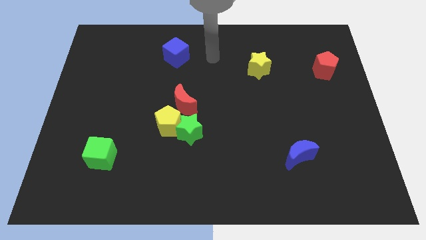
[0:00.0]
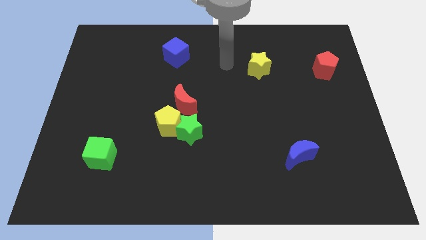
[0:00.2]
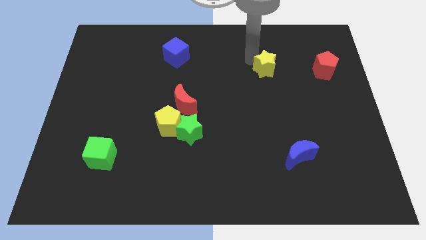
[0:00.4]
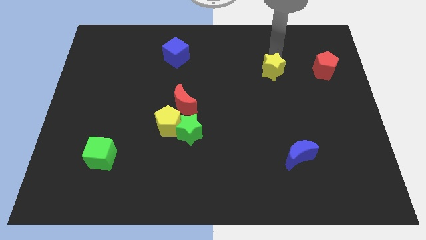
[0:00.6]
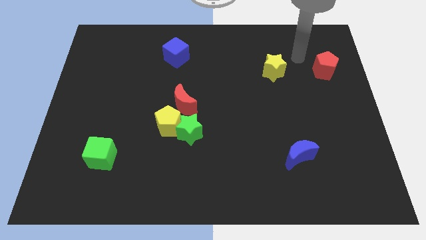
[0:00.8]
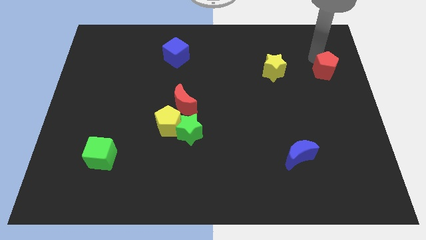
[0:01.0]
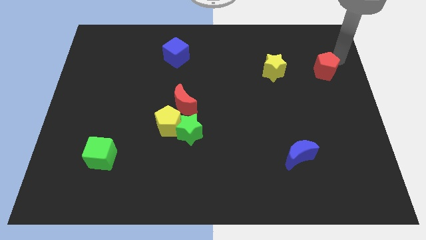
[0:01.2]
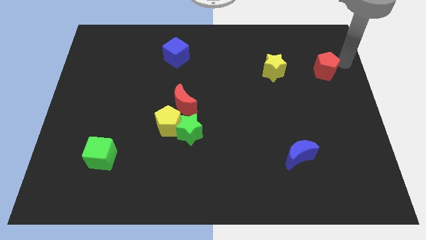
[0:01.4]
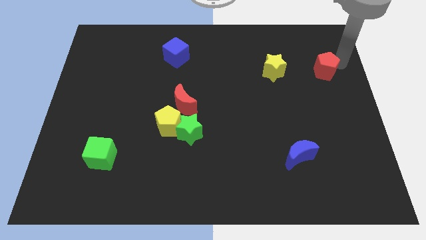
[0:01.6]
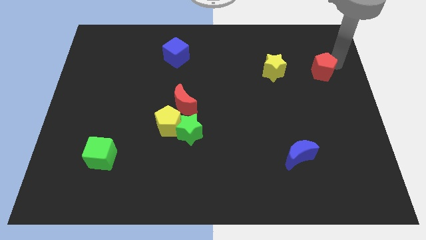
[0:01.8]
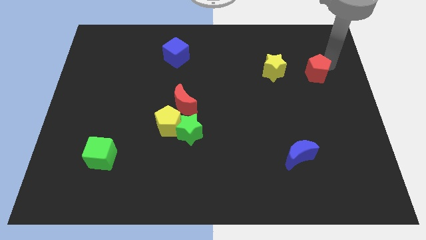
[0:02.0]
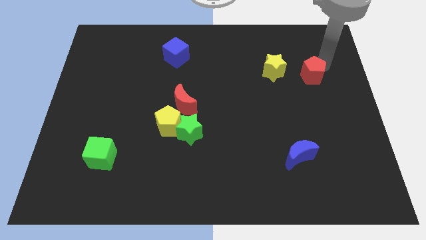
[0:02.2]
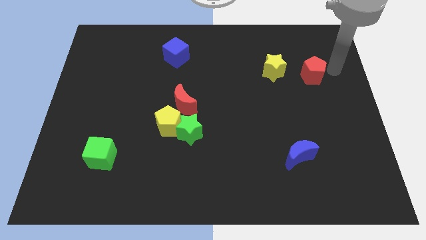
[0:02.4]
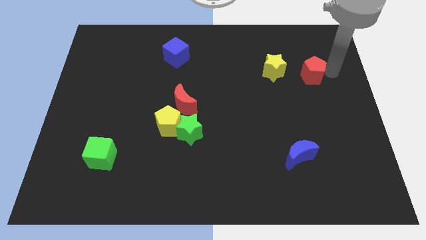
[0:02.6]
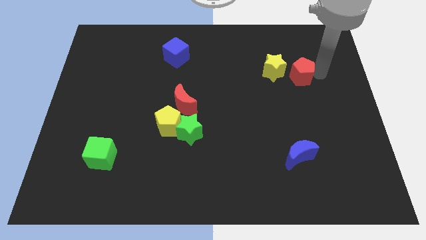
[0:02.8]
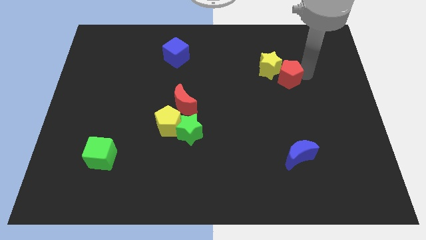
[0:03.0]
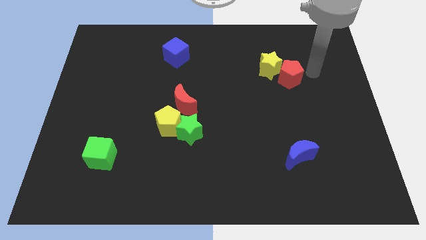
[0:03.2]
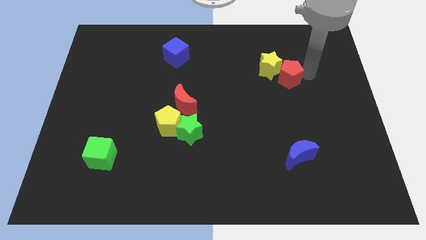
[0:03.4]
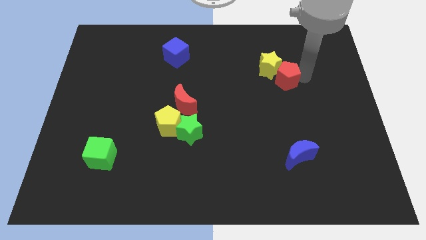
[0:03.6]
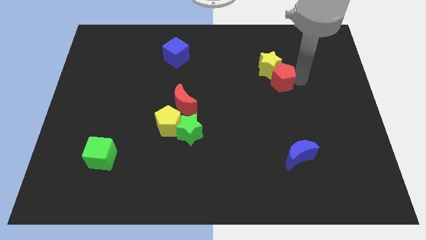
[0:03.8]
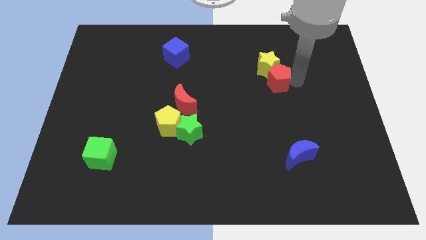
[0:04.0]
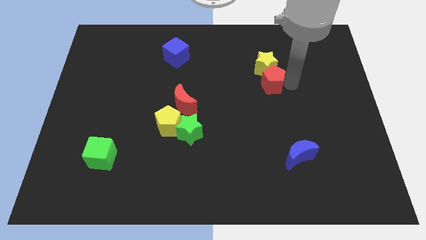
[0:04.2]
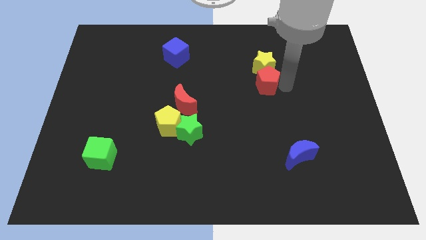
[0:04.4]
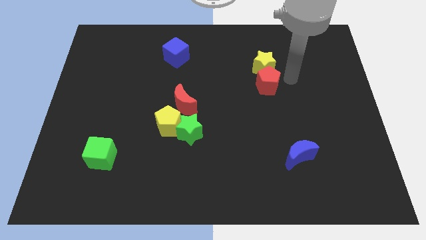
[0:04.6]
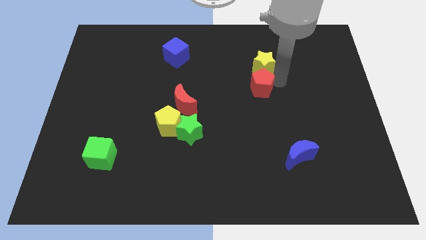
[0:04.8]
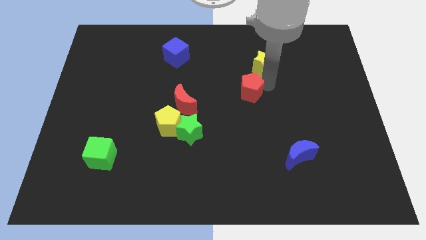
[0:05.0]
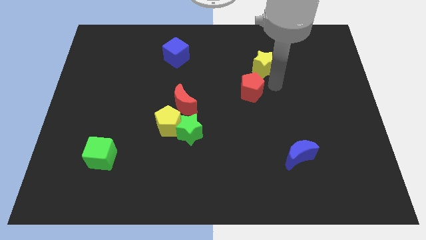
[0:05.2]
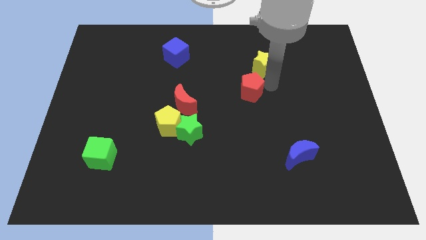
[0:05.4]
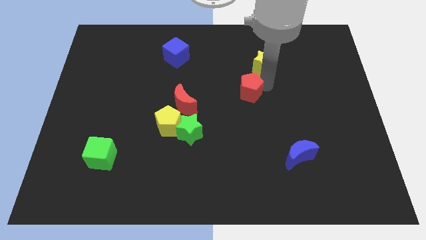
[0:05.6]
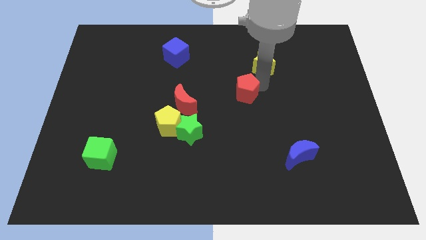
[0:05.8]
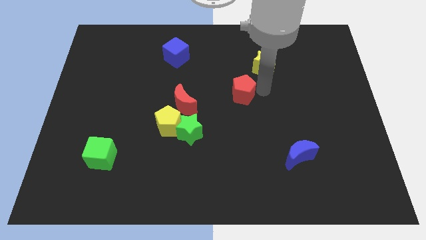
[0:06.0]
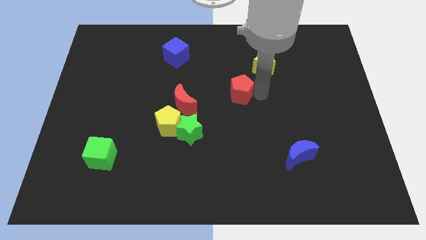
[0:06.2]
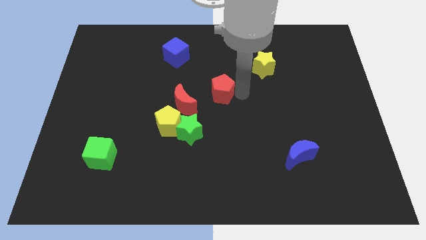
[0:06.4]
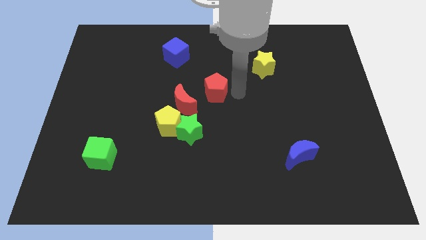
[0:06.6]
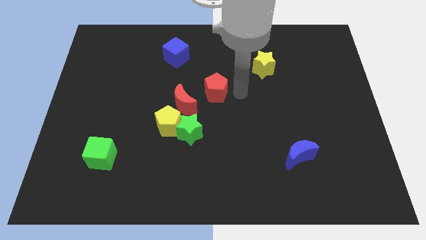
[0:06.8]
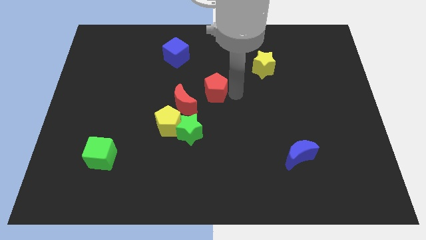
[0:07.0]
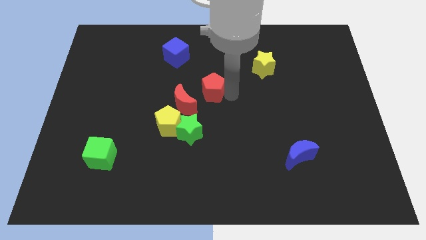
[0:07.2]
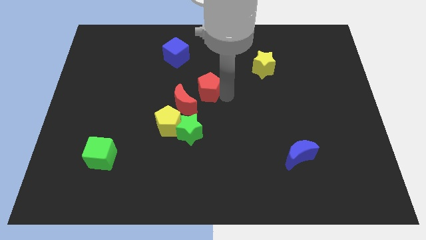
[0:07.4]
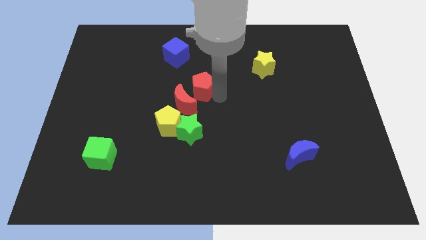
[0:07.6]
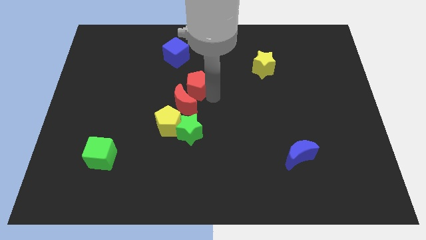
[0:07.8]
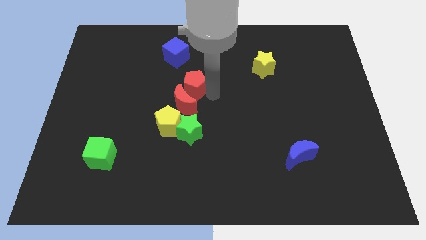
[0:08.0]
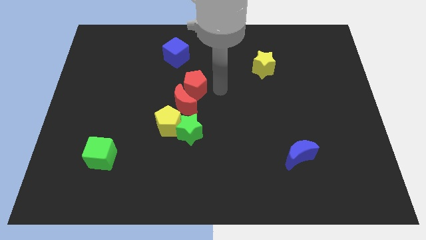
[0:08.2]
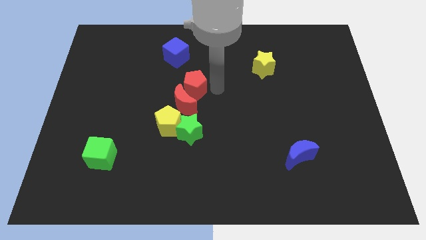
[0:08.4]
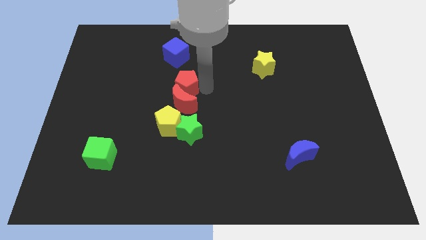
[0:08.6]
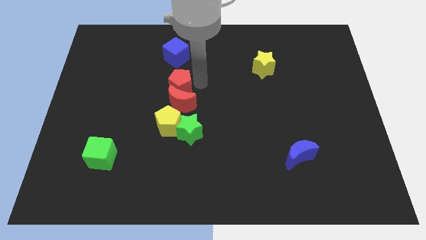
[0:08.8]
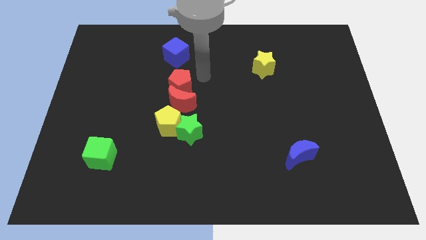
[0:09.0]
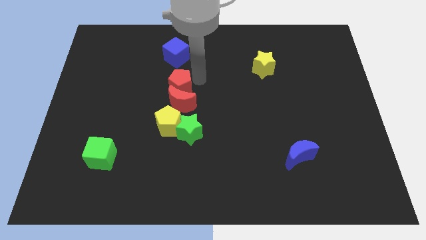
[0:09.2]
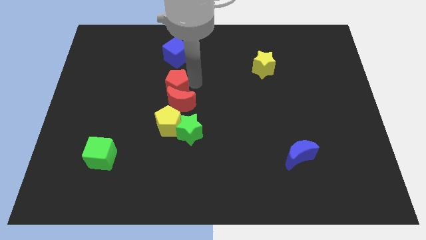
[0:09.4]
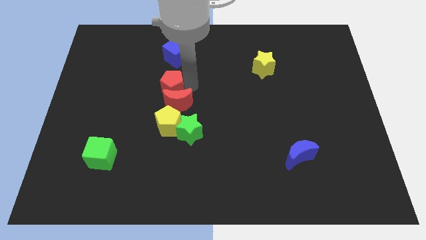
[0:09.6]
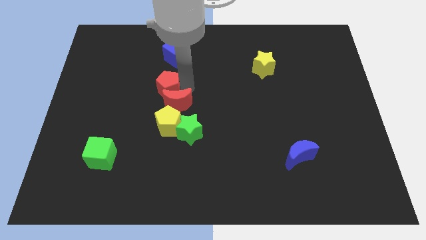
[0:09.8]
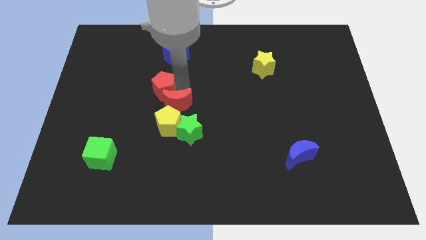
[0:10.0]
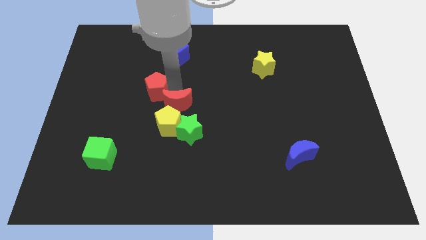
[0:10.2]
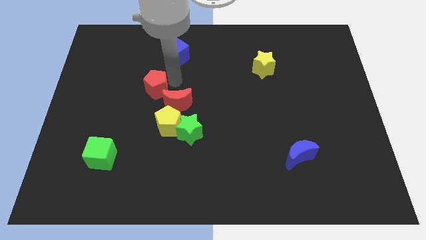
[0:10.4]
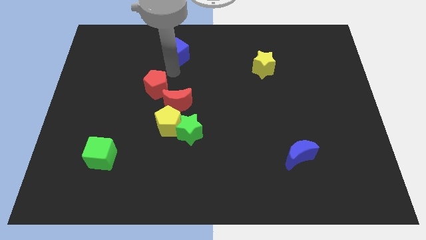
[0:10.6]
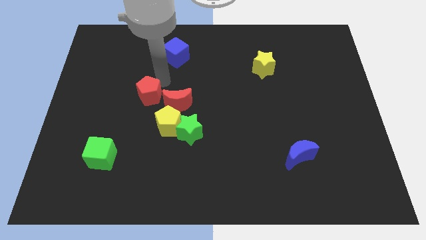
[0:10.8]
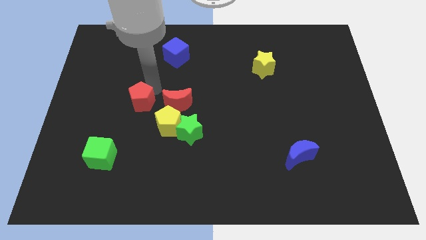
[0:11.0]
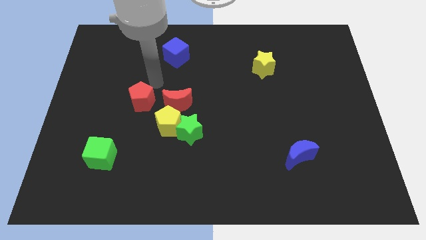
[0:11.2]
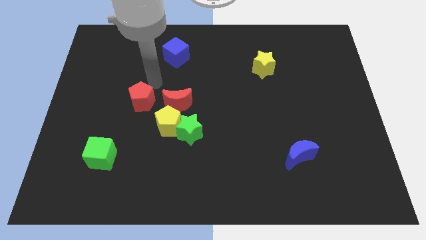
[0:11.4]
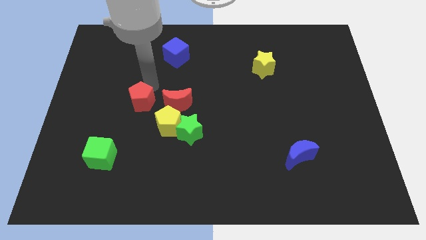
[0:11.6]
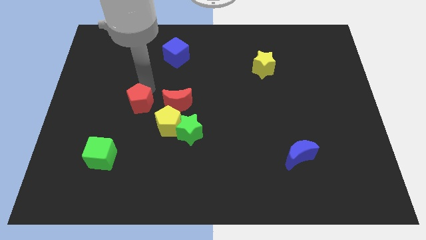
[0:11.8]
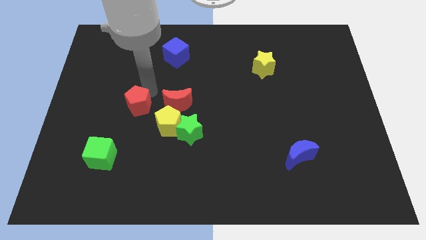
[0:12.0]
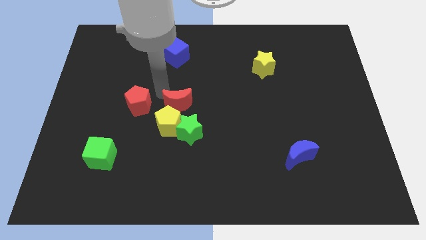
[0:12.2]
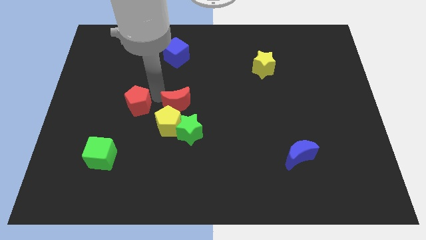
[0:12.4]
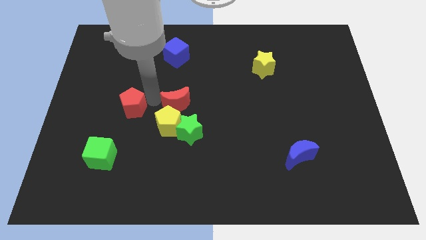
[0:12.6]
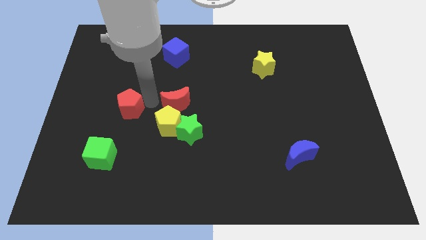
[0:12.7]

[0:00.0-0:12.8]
push the red pentagon to the top of the green cube

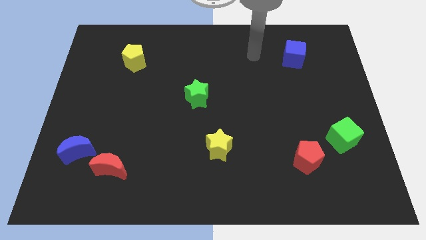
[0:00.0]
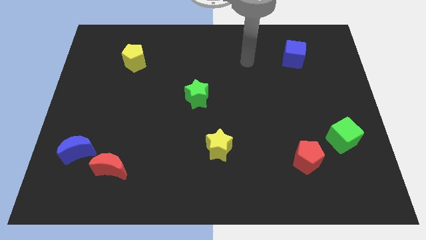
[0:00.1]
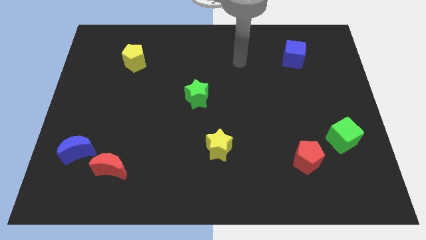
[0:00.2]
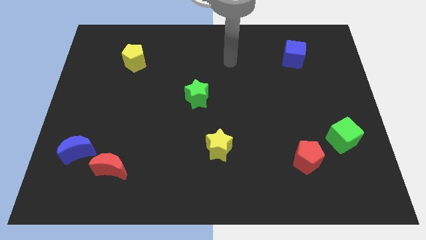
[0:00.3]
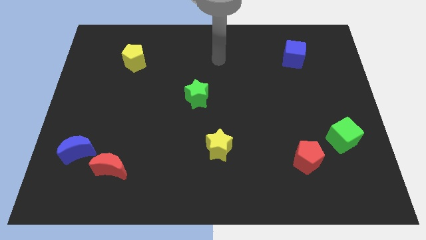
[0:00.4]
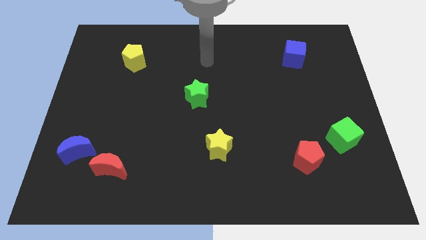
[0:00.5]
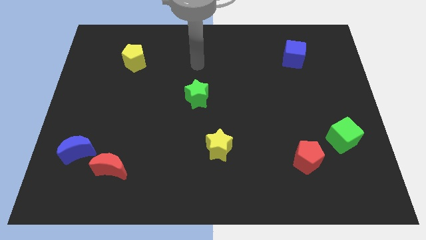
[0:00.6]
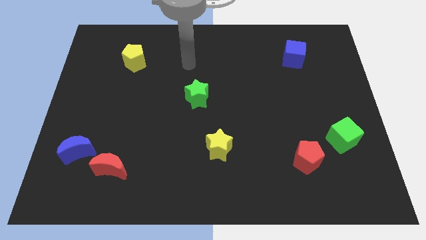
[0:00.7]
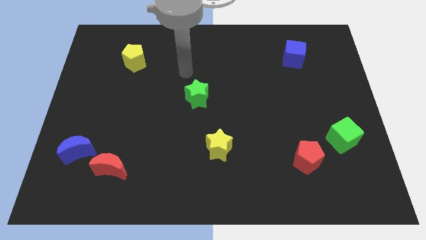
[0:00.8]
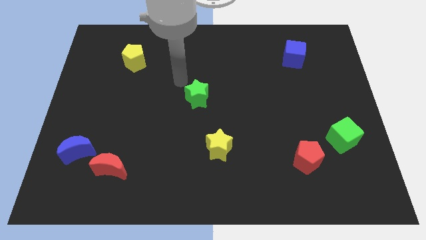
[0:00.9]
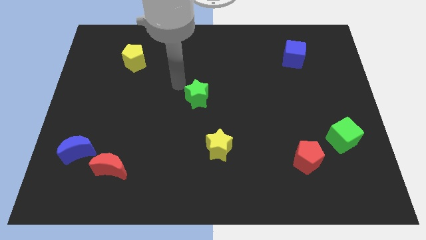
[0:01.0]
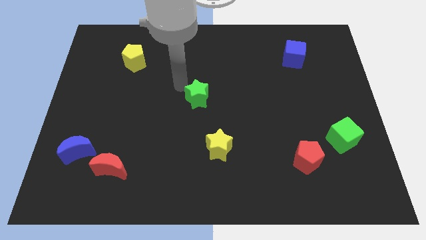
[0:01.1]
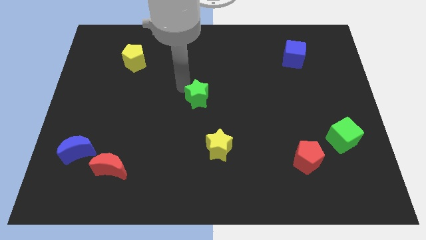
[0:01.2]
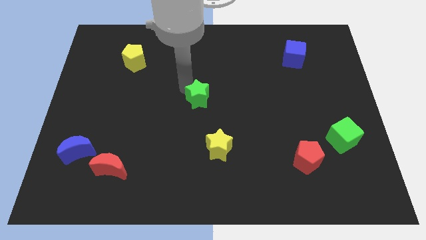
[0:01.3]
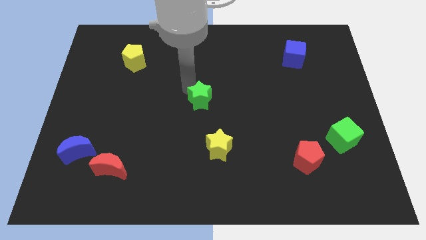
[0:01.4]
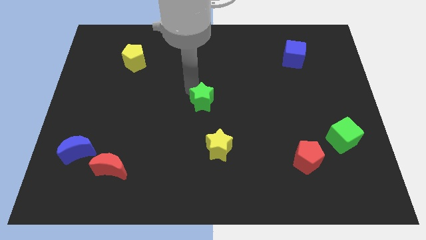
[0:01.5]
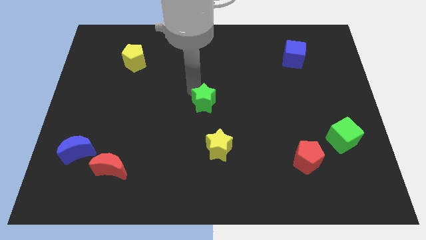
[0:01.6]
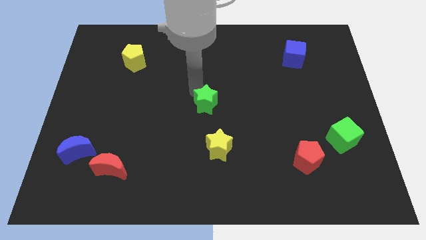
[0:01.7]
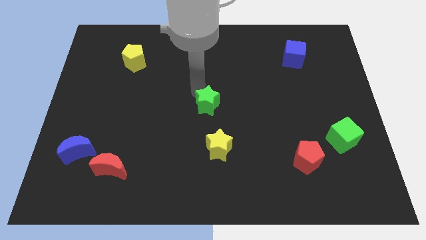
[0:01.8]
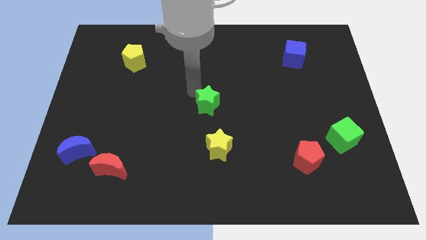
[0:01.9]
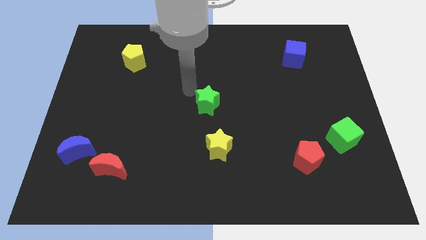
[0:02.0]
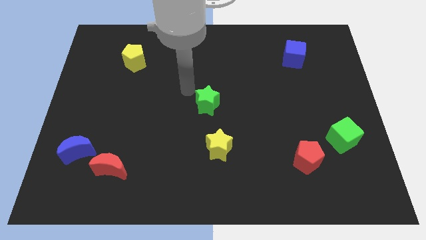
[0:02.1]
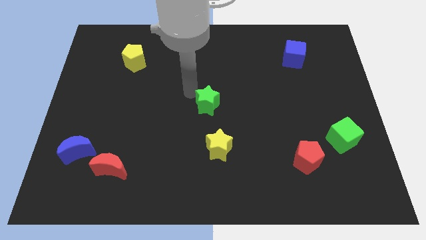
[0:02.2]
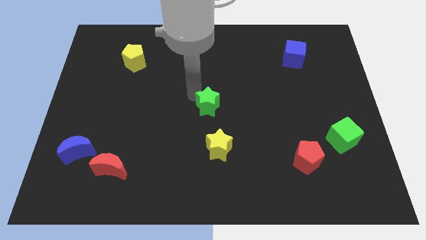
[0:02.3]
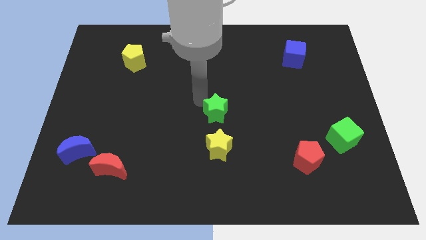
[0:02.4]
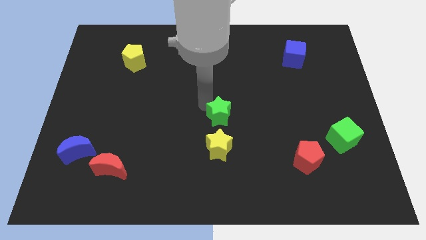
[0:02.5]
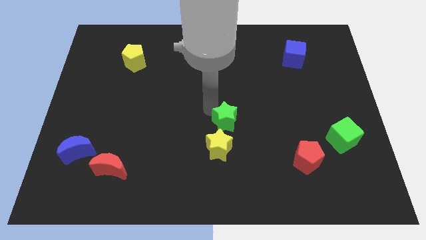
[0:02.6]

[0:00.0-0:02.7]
push the green star to the top right side of the yellow star
